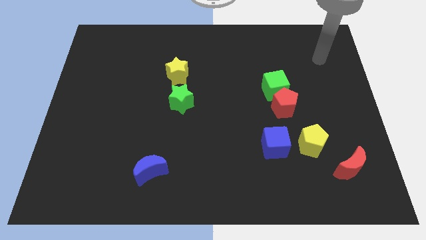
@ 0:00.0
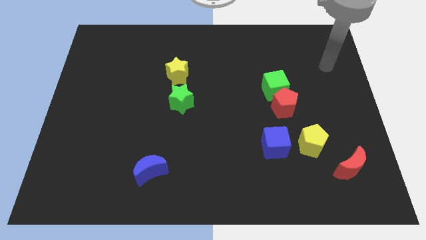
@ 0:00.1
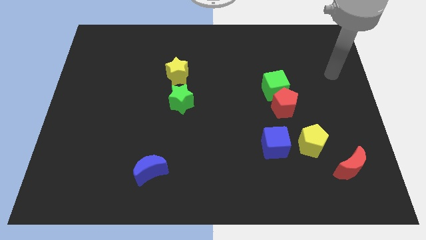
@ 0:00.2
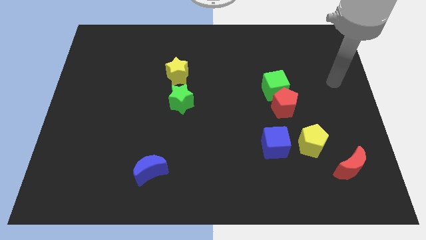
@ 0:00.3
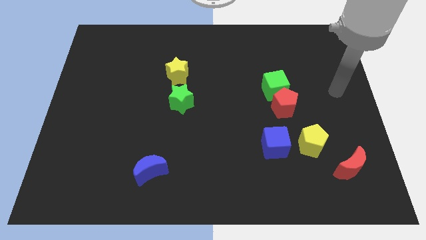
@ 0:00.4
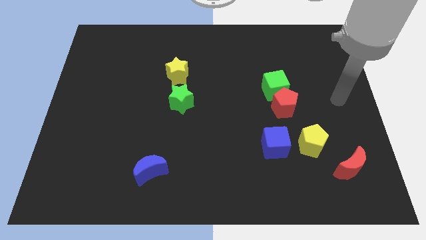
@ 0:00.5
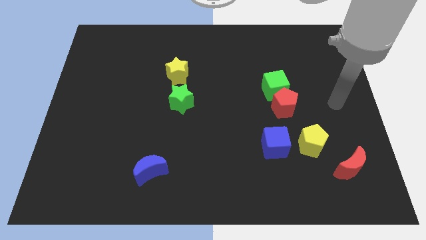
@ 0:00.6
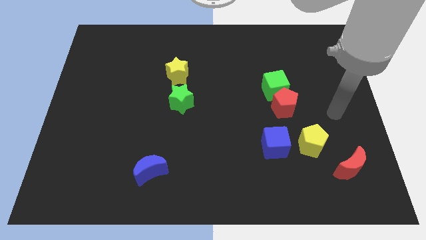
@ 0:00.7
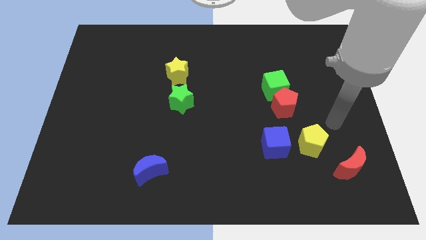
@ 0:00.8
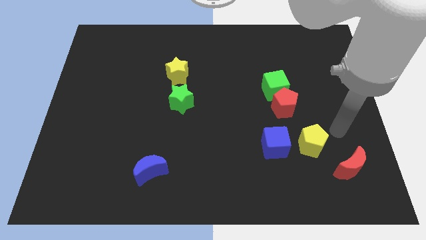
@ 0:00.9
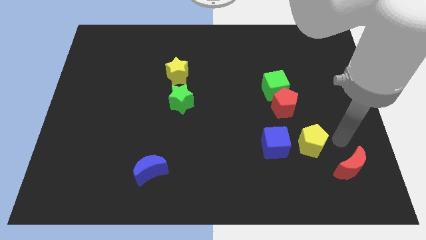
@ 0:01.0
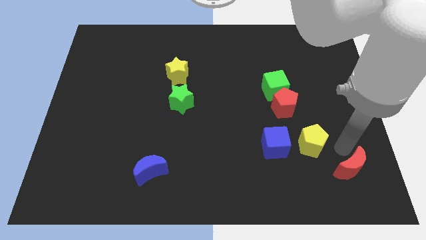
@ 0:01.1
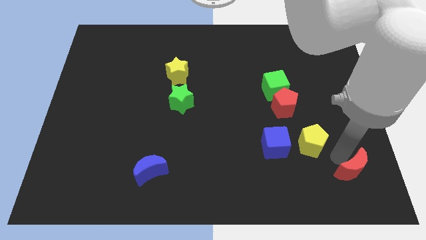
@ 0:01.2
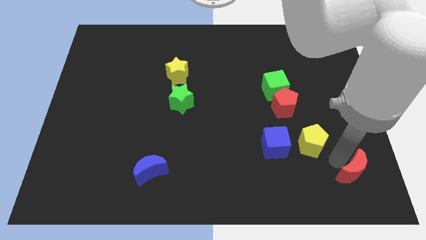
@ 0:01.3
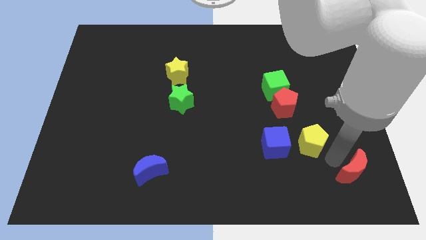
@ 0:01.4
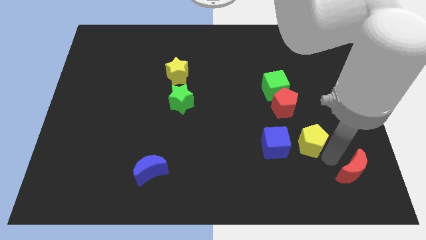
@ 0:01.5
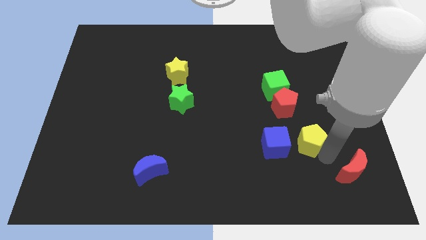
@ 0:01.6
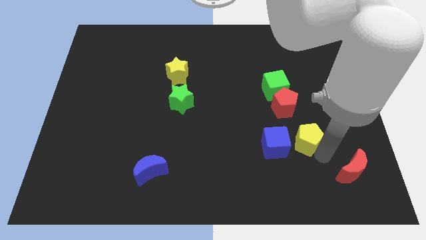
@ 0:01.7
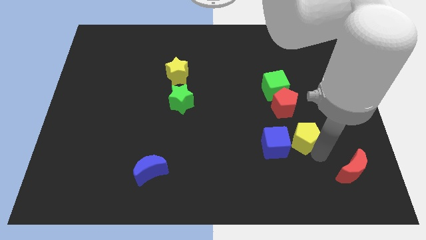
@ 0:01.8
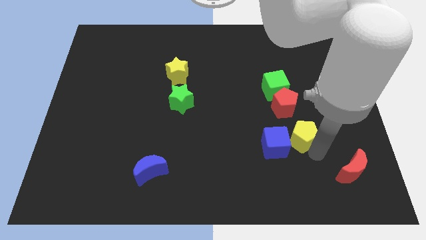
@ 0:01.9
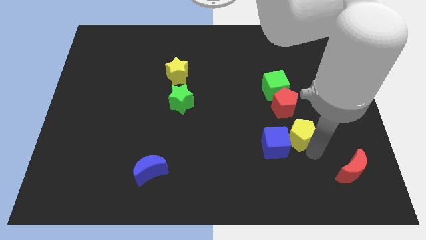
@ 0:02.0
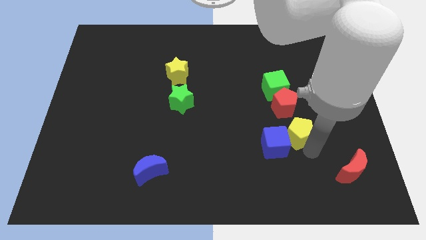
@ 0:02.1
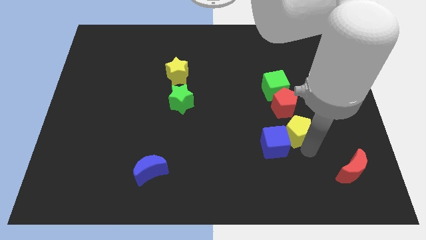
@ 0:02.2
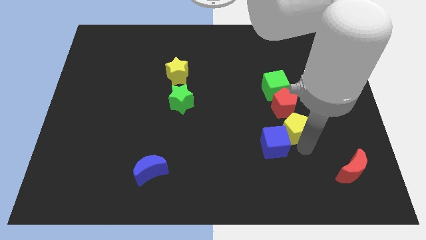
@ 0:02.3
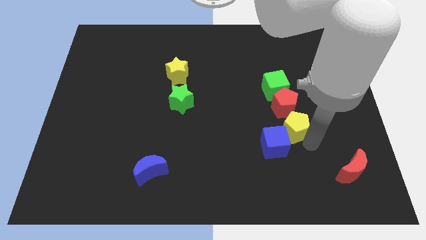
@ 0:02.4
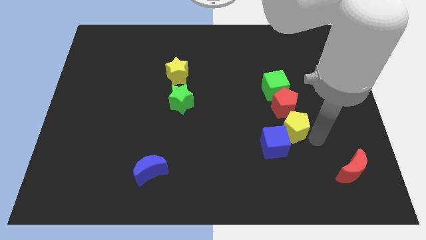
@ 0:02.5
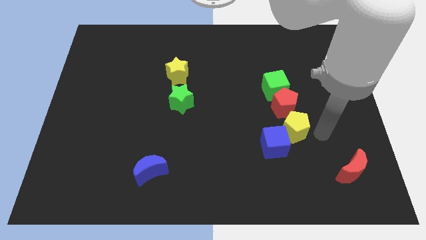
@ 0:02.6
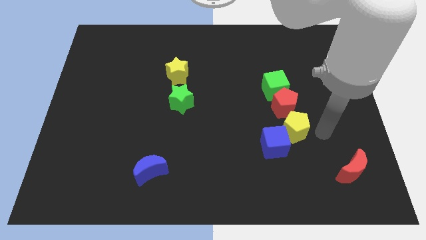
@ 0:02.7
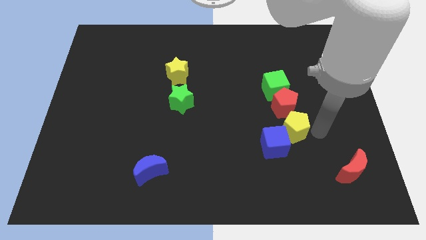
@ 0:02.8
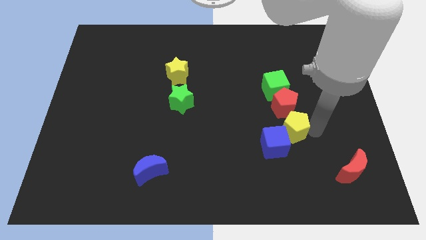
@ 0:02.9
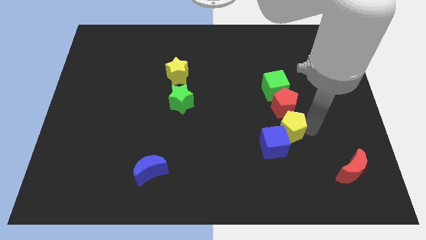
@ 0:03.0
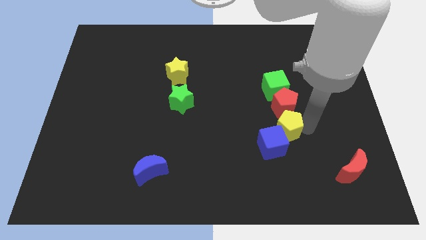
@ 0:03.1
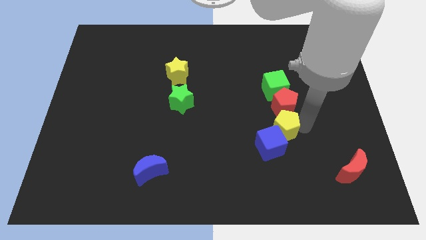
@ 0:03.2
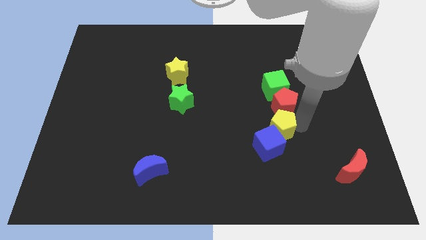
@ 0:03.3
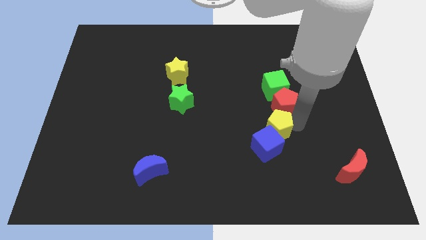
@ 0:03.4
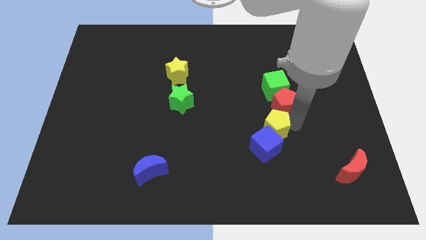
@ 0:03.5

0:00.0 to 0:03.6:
slide the yellow pentagon to the left a little bit

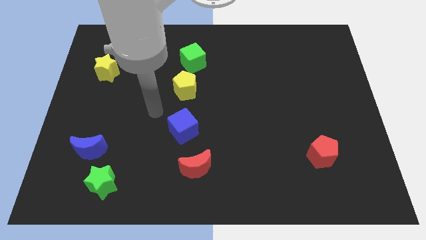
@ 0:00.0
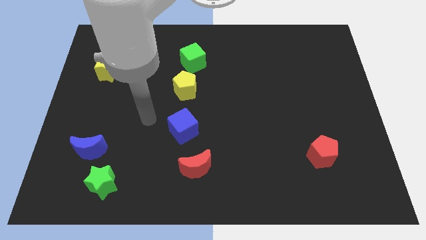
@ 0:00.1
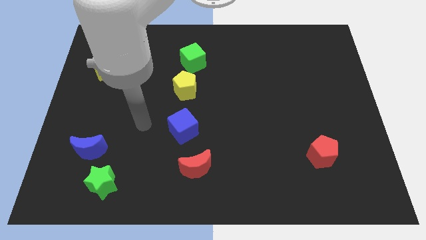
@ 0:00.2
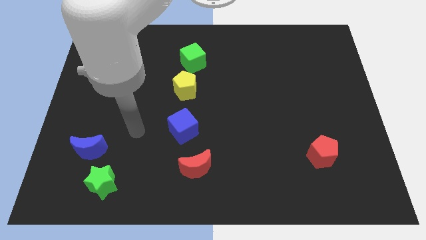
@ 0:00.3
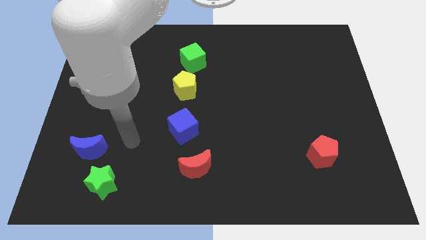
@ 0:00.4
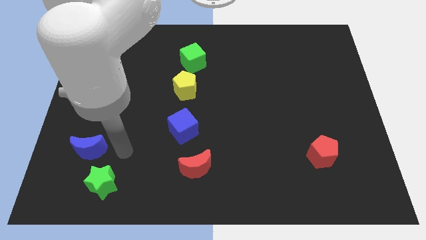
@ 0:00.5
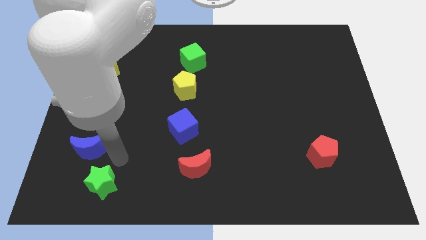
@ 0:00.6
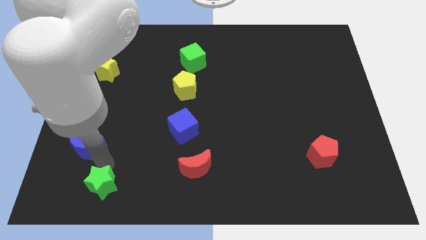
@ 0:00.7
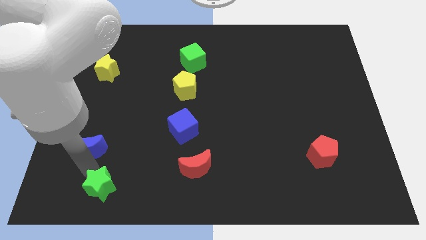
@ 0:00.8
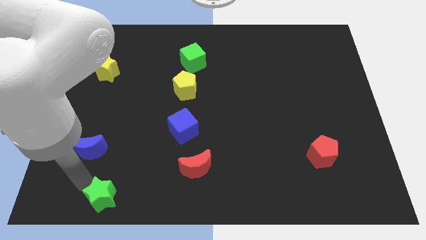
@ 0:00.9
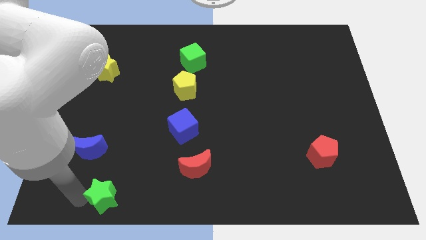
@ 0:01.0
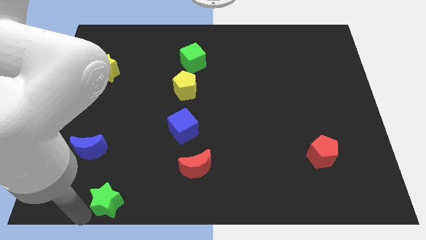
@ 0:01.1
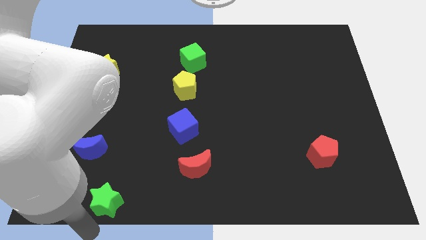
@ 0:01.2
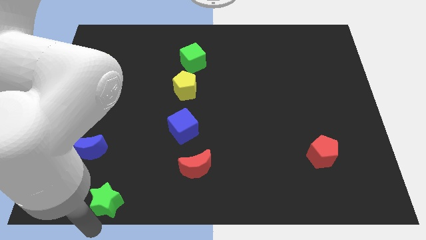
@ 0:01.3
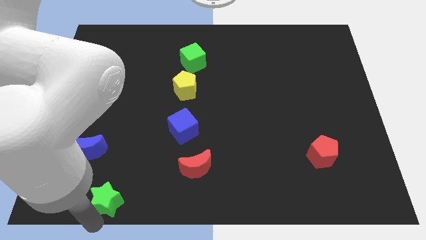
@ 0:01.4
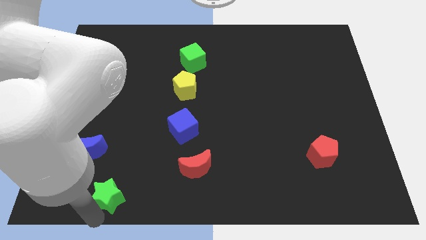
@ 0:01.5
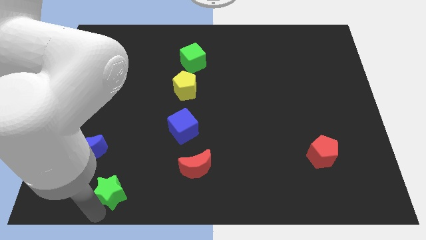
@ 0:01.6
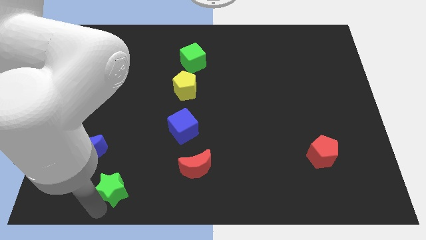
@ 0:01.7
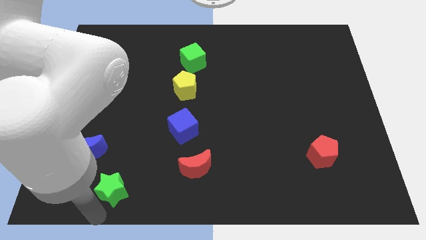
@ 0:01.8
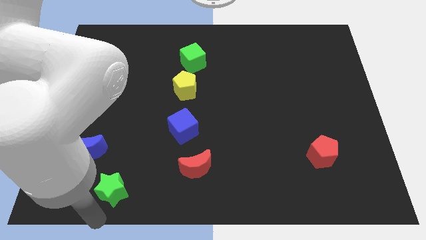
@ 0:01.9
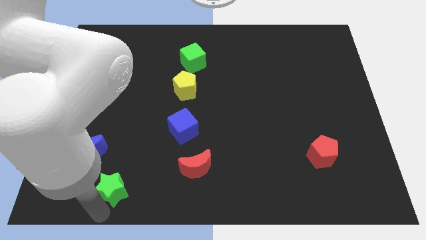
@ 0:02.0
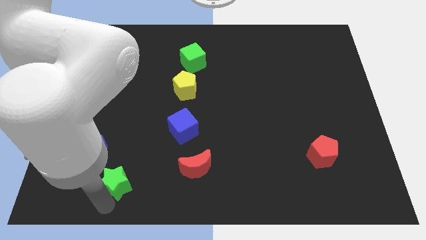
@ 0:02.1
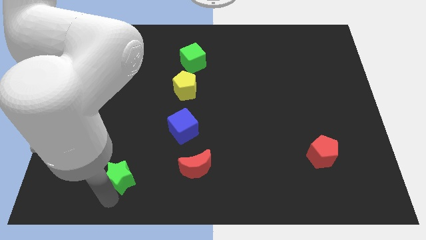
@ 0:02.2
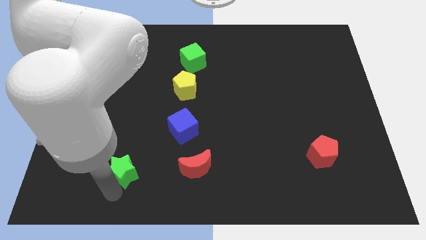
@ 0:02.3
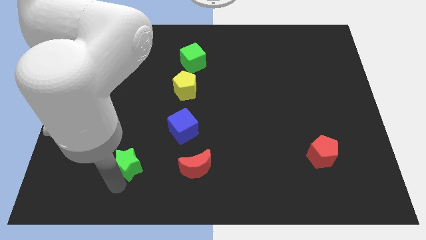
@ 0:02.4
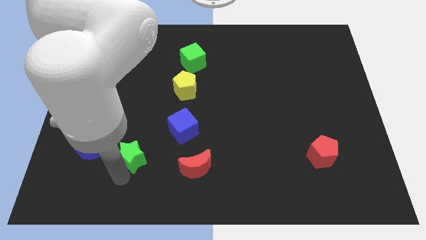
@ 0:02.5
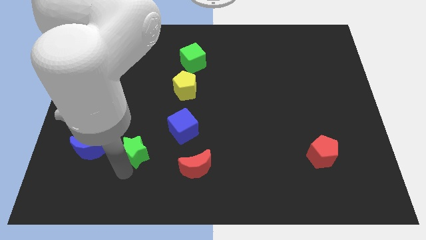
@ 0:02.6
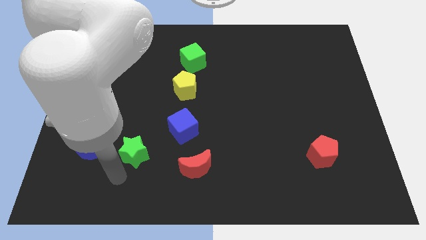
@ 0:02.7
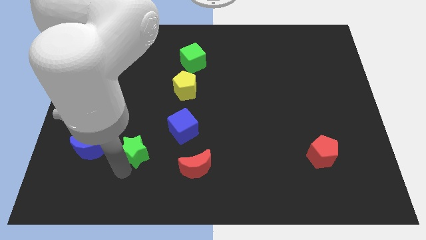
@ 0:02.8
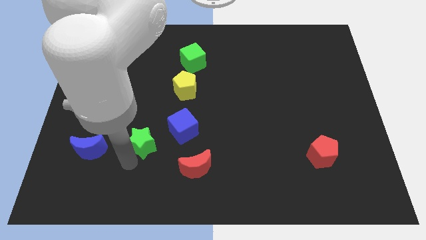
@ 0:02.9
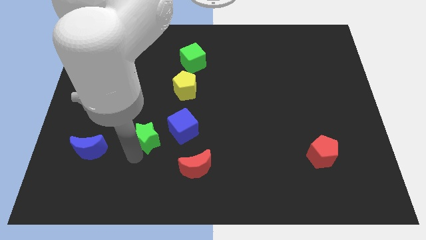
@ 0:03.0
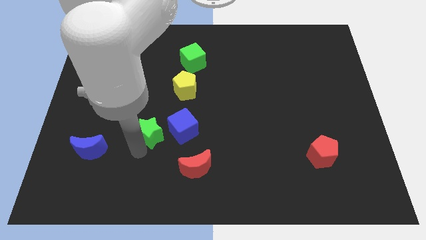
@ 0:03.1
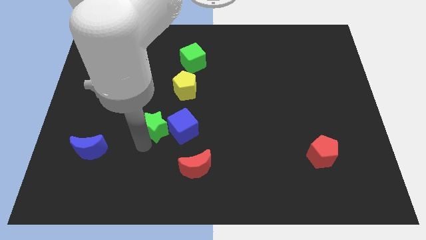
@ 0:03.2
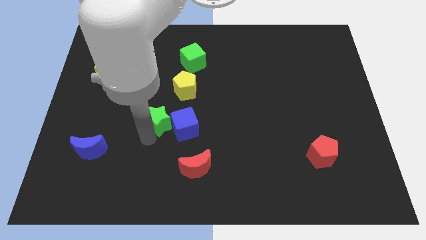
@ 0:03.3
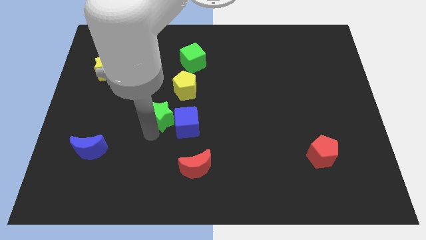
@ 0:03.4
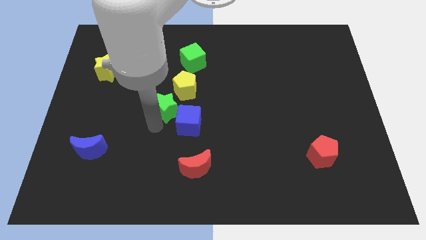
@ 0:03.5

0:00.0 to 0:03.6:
move the green star upwards and right diagonally

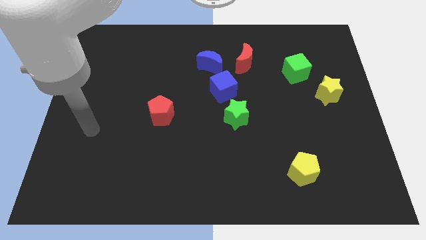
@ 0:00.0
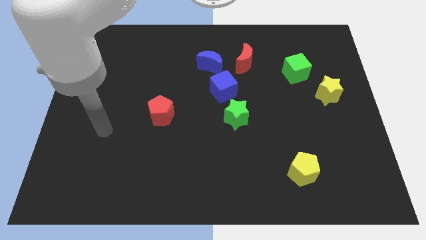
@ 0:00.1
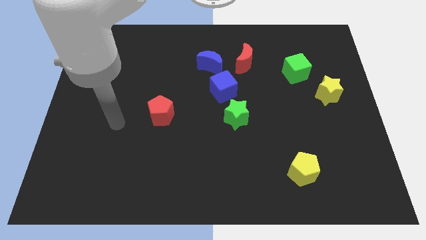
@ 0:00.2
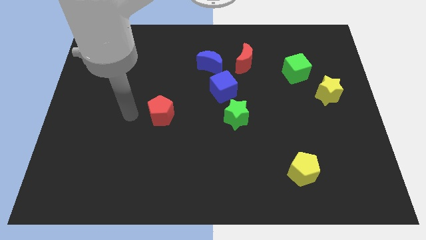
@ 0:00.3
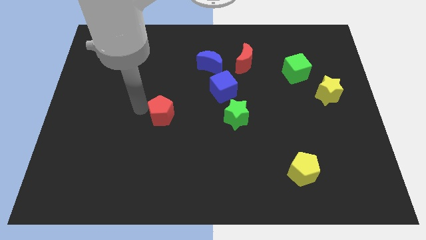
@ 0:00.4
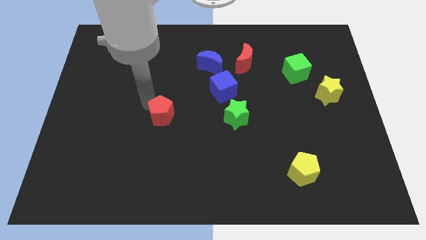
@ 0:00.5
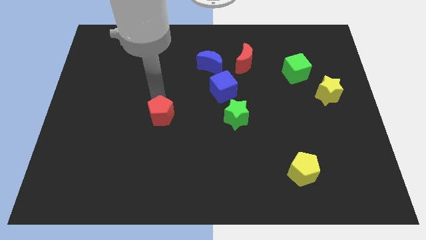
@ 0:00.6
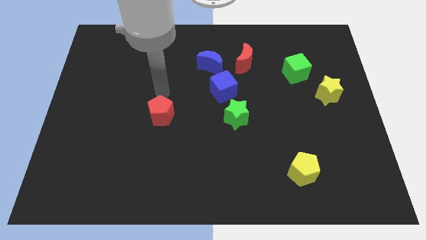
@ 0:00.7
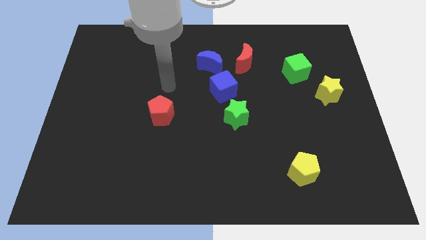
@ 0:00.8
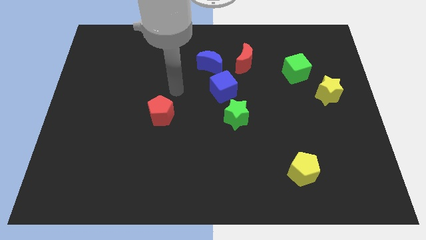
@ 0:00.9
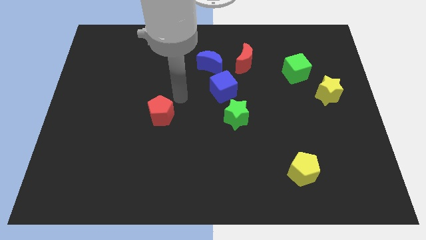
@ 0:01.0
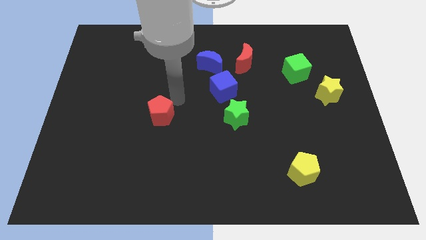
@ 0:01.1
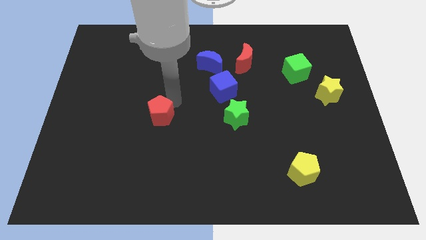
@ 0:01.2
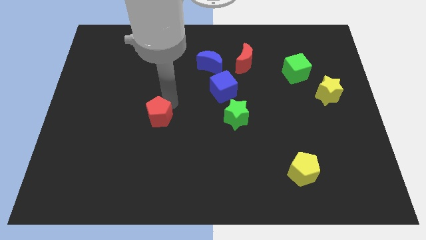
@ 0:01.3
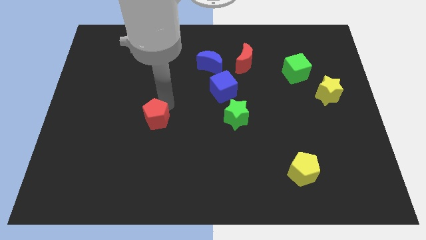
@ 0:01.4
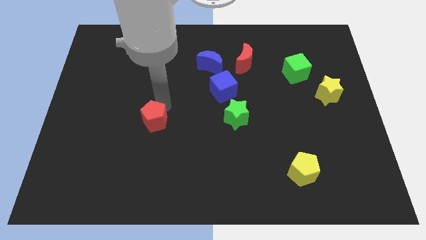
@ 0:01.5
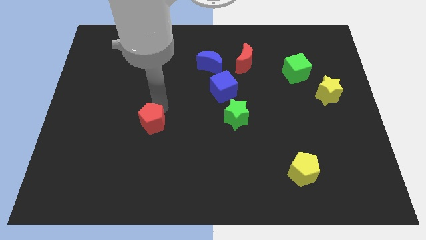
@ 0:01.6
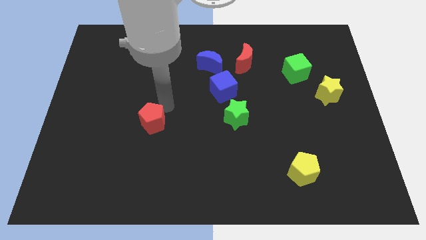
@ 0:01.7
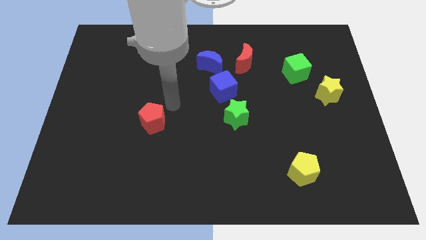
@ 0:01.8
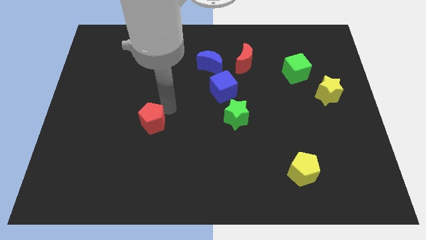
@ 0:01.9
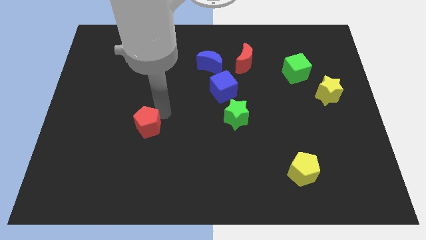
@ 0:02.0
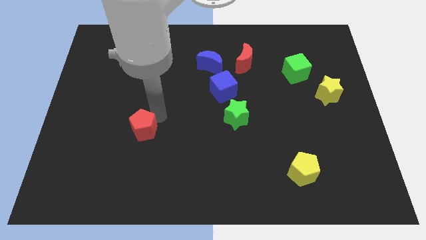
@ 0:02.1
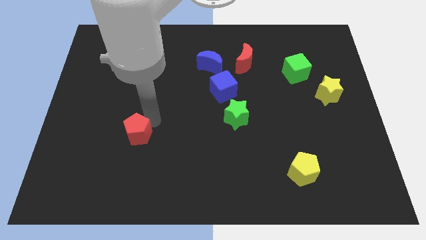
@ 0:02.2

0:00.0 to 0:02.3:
move the red pentagon a little bit diagonally downwards and to the left
